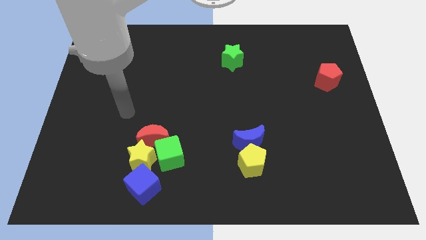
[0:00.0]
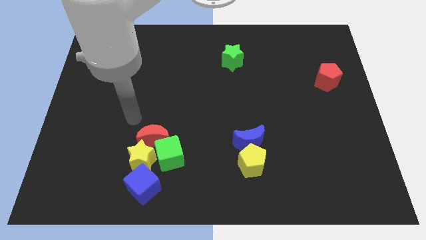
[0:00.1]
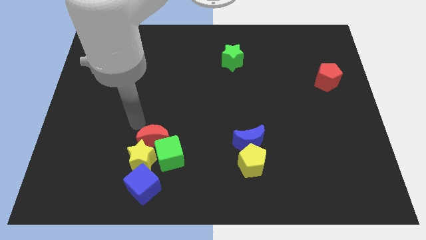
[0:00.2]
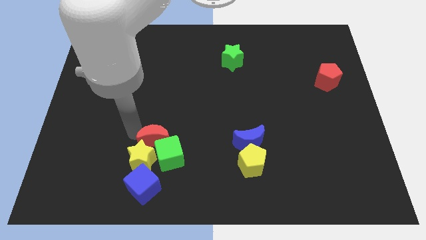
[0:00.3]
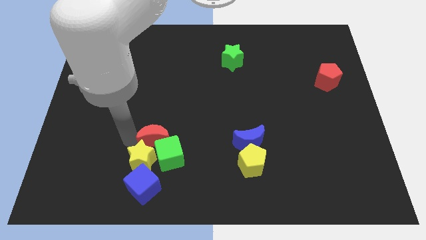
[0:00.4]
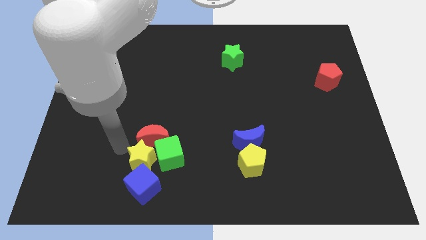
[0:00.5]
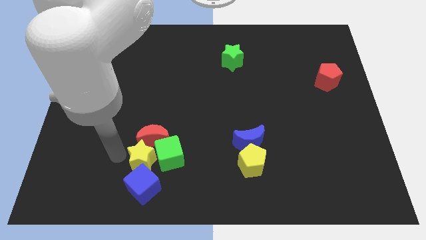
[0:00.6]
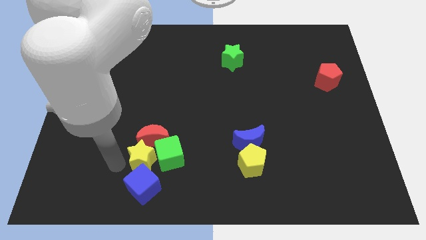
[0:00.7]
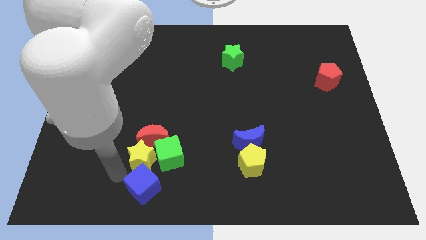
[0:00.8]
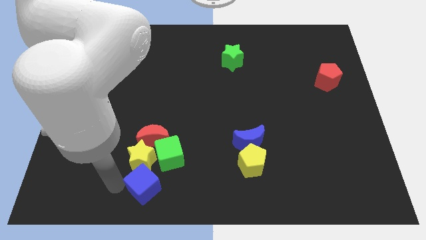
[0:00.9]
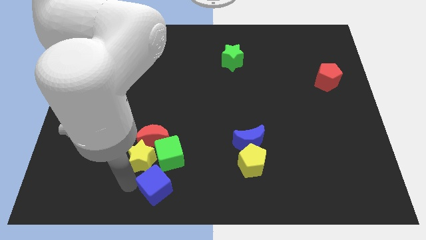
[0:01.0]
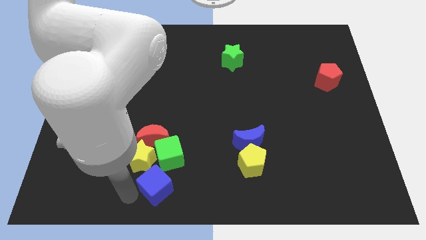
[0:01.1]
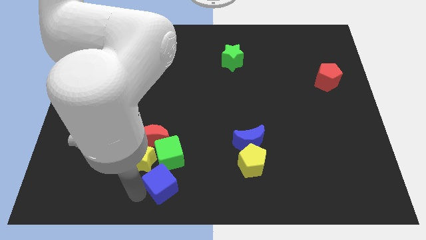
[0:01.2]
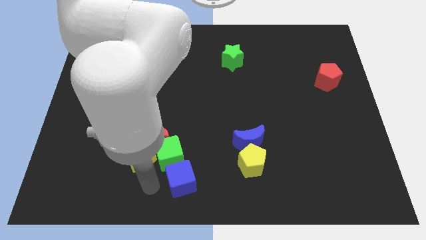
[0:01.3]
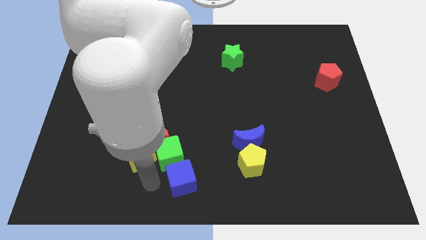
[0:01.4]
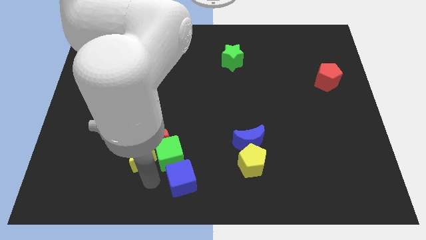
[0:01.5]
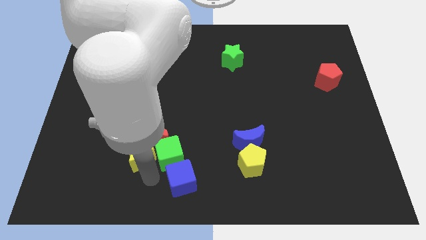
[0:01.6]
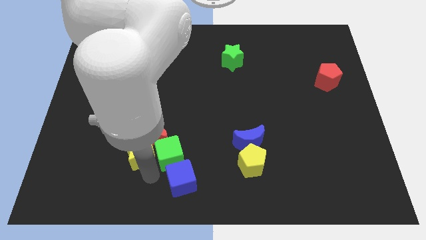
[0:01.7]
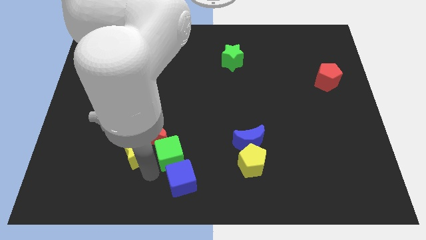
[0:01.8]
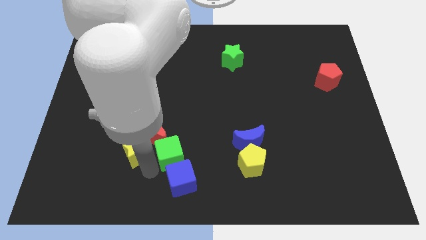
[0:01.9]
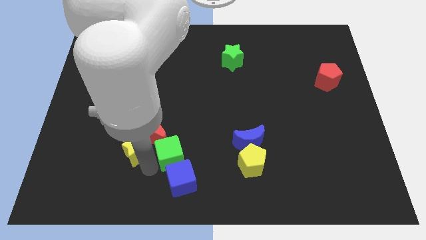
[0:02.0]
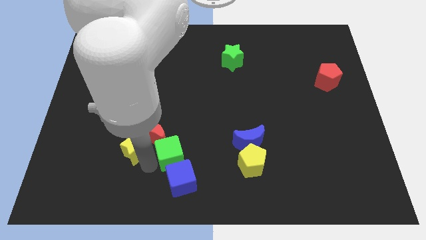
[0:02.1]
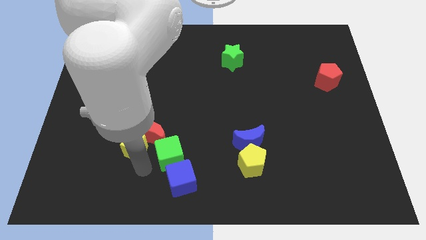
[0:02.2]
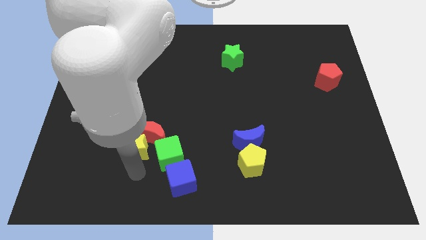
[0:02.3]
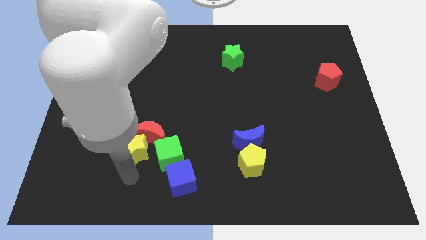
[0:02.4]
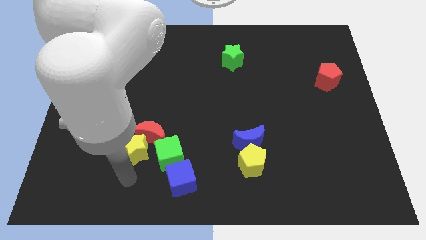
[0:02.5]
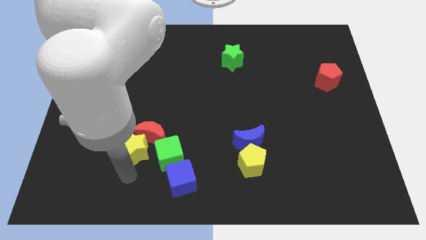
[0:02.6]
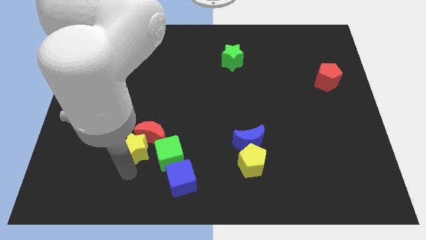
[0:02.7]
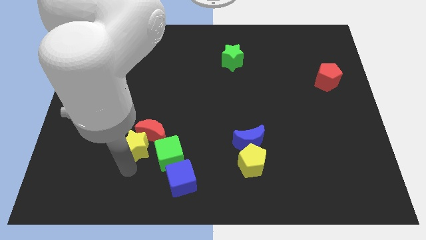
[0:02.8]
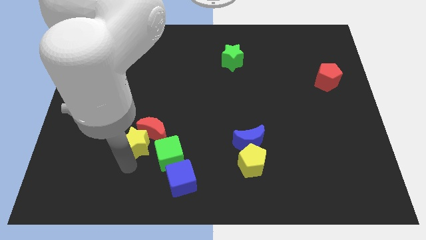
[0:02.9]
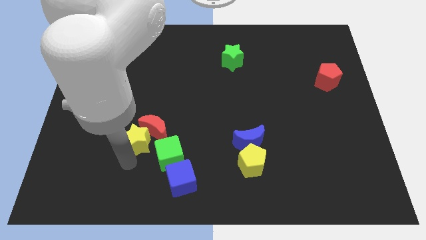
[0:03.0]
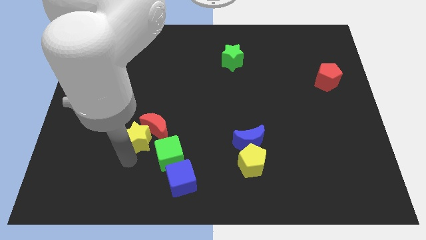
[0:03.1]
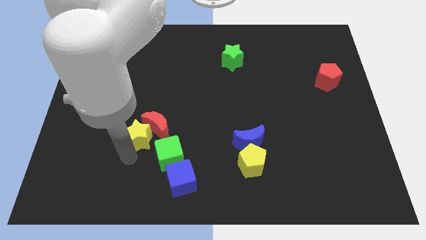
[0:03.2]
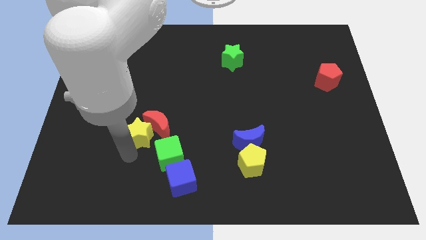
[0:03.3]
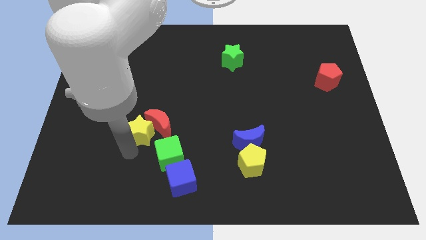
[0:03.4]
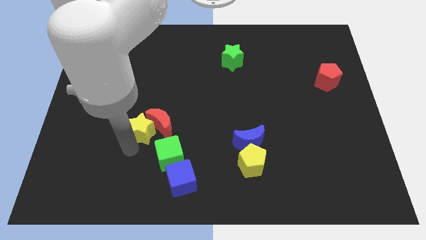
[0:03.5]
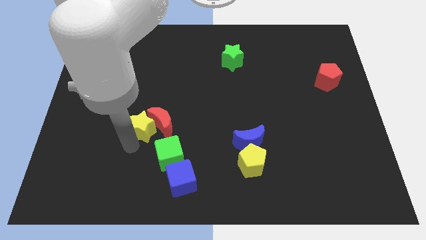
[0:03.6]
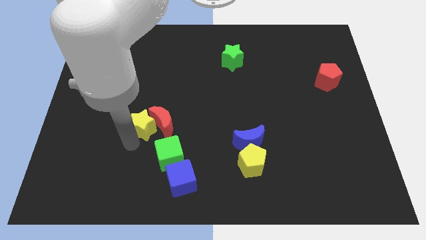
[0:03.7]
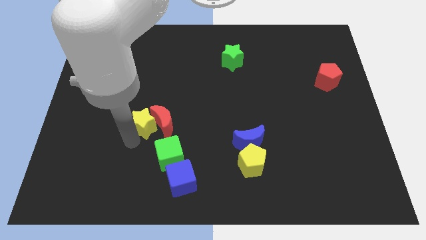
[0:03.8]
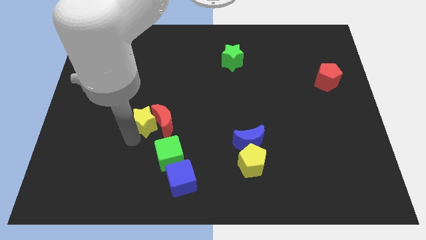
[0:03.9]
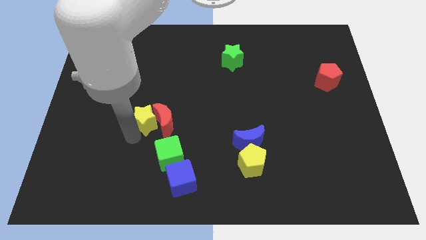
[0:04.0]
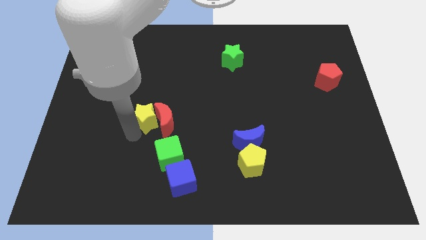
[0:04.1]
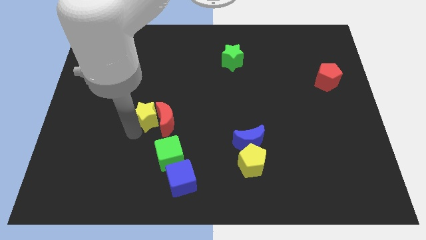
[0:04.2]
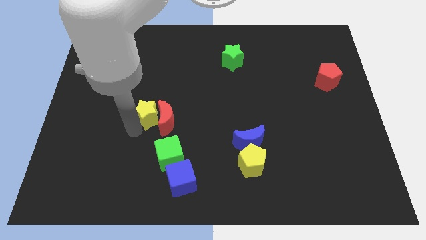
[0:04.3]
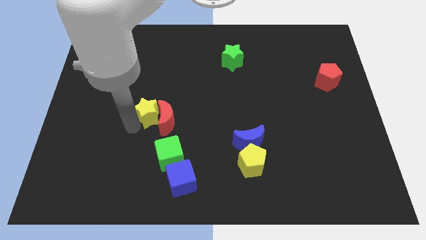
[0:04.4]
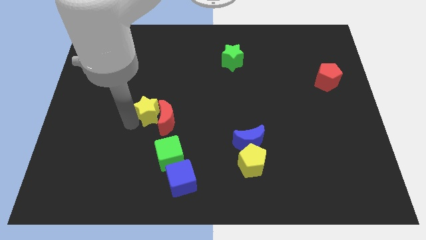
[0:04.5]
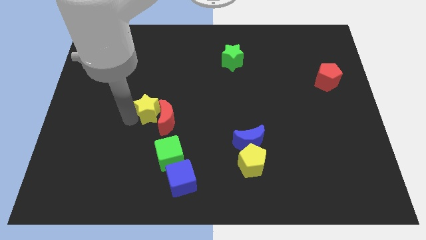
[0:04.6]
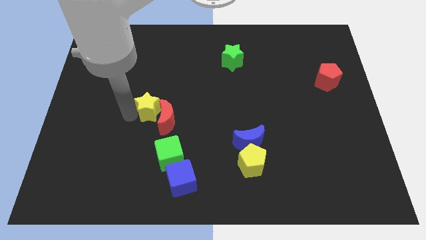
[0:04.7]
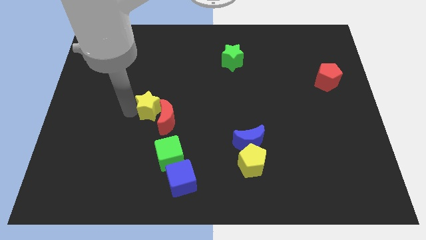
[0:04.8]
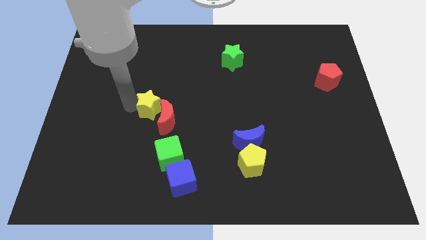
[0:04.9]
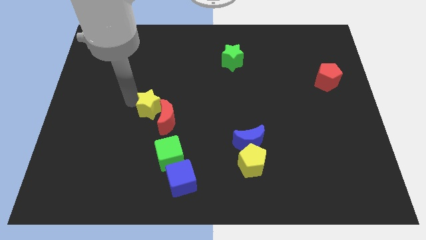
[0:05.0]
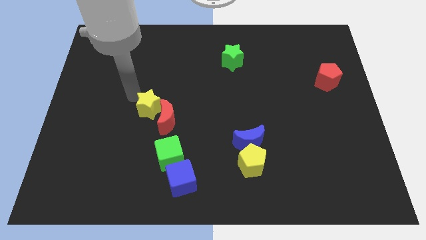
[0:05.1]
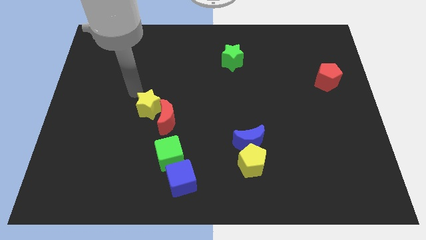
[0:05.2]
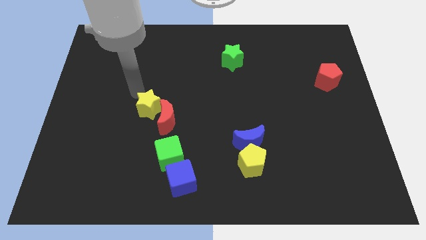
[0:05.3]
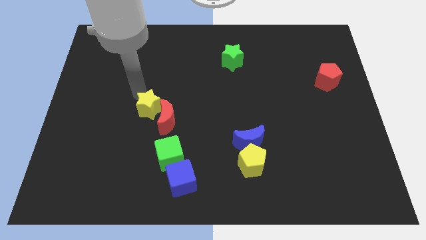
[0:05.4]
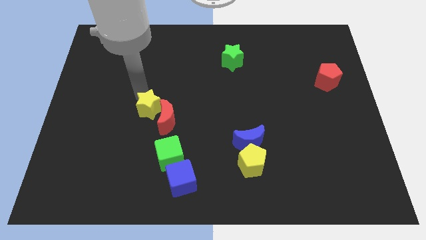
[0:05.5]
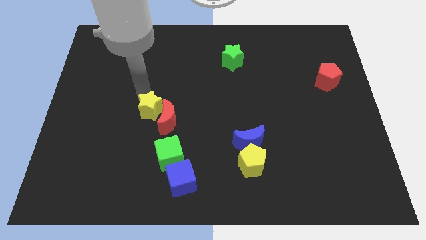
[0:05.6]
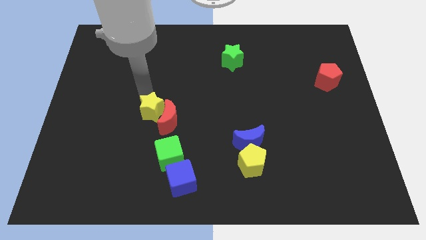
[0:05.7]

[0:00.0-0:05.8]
slide the yellow star somewhat upwards and to the right diagonally

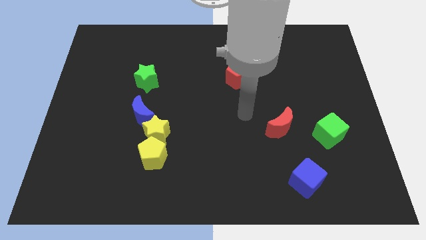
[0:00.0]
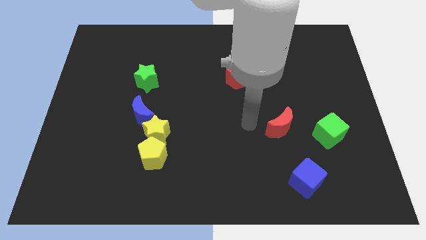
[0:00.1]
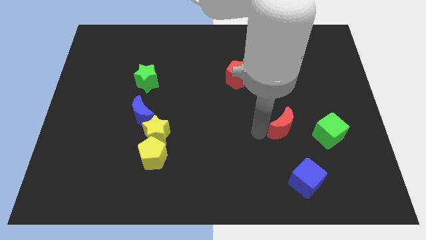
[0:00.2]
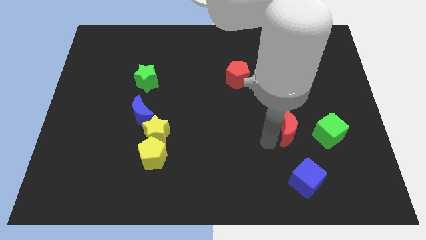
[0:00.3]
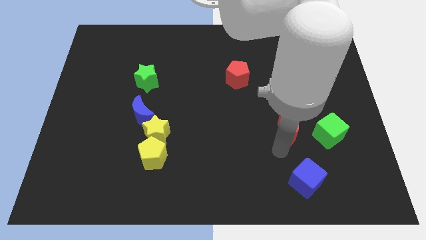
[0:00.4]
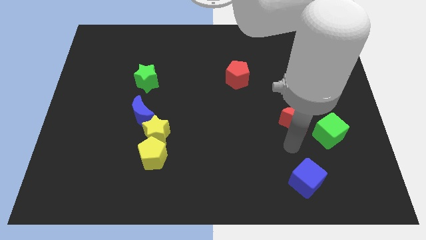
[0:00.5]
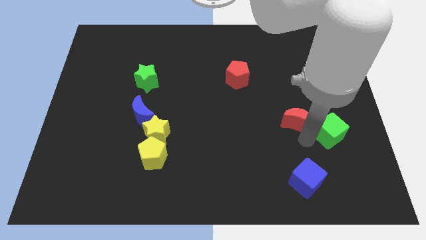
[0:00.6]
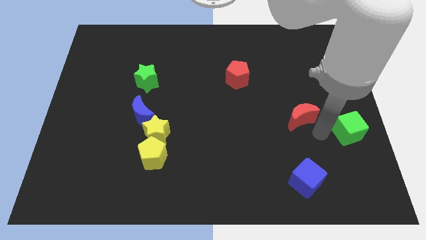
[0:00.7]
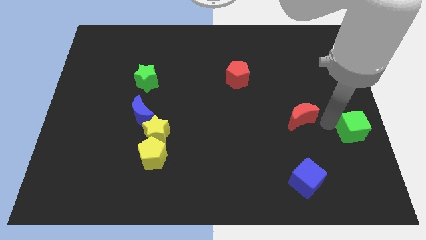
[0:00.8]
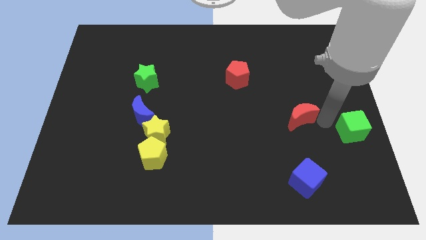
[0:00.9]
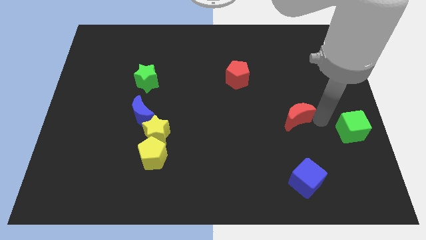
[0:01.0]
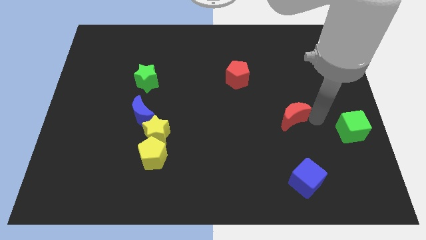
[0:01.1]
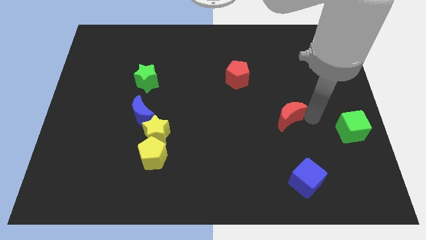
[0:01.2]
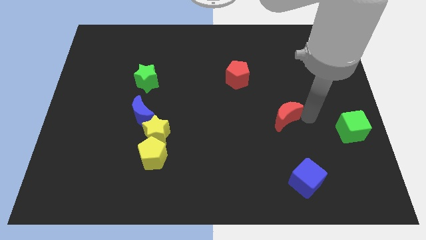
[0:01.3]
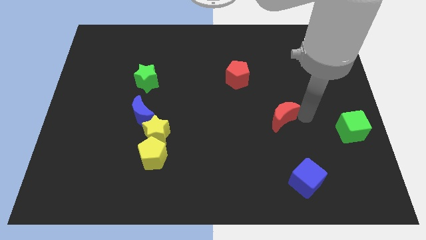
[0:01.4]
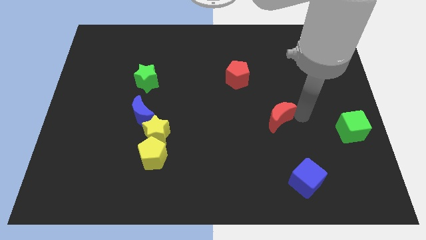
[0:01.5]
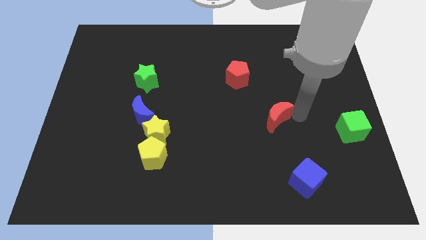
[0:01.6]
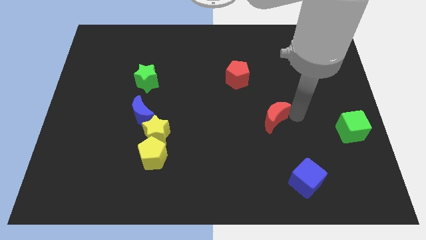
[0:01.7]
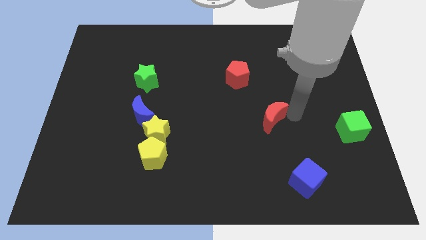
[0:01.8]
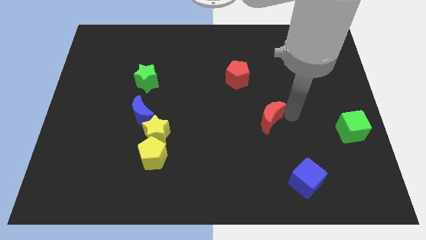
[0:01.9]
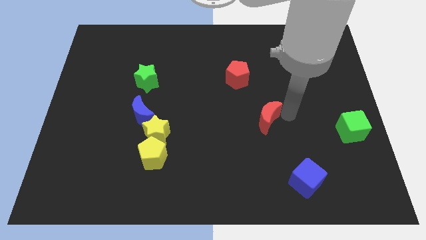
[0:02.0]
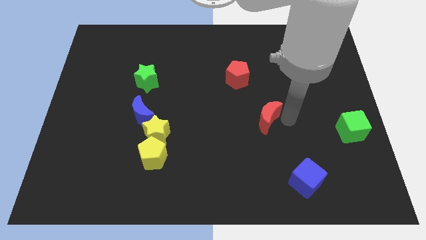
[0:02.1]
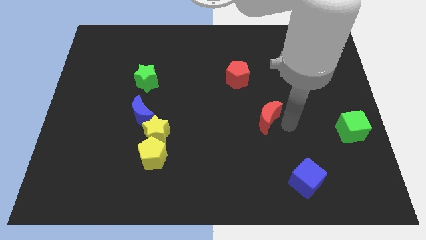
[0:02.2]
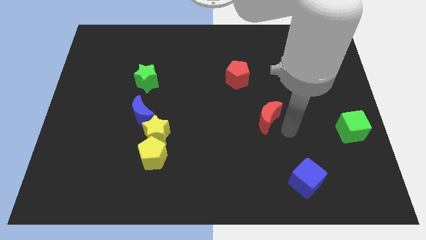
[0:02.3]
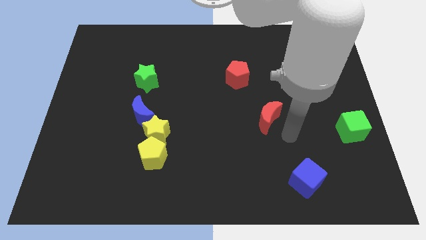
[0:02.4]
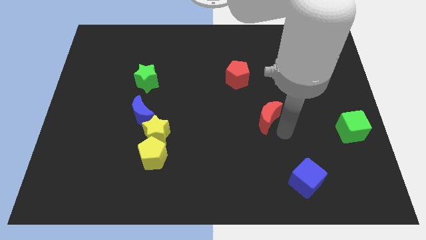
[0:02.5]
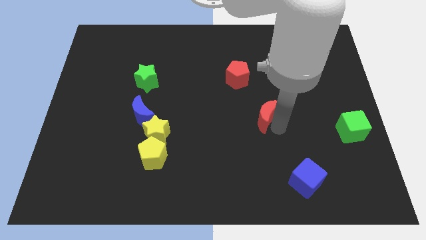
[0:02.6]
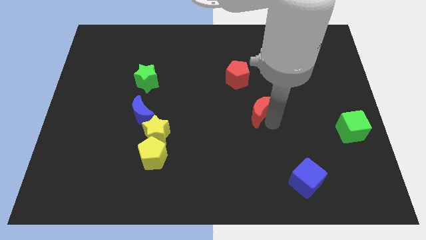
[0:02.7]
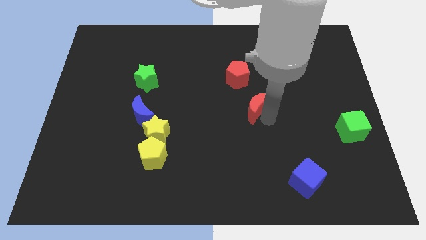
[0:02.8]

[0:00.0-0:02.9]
slide the red moon a little upwards and left
